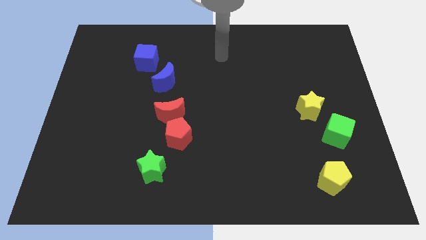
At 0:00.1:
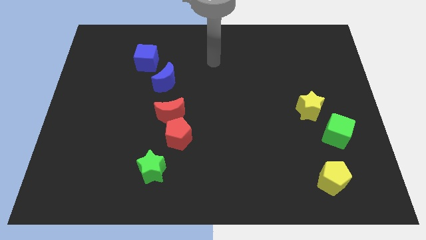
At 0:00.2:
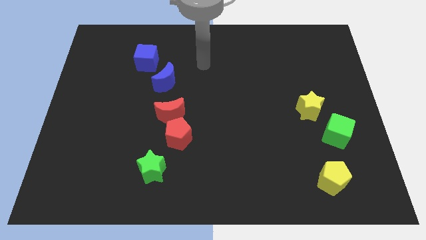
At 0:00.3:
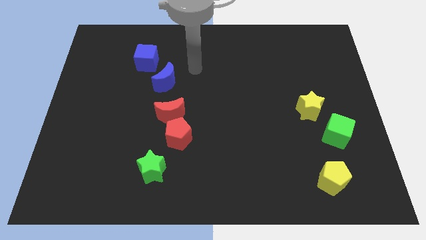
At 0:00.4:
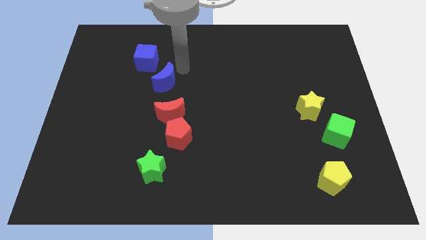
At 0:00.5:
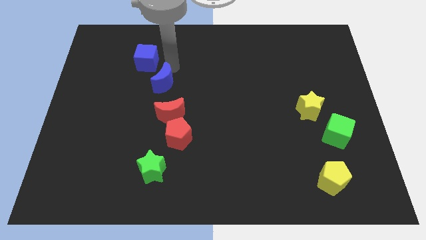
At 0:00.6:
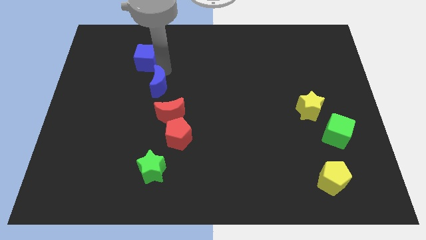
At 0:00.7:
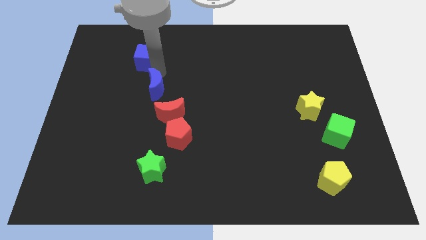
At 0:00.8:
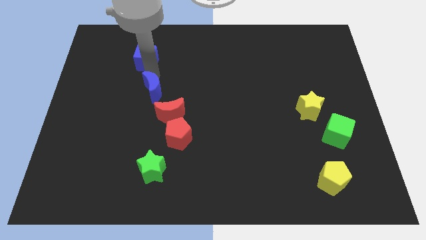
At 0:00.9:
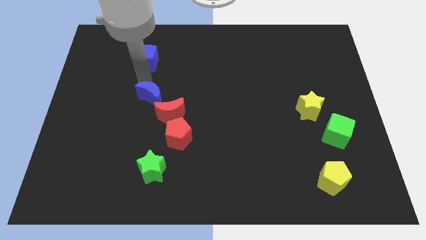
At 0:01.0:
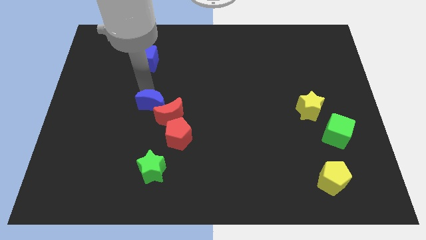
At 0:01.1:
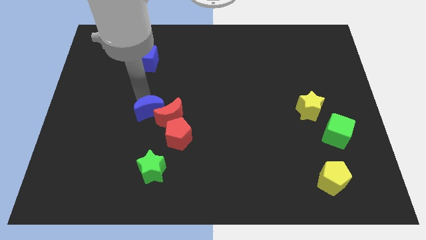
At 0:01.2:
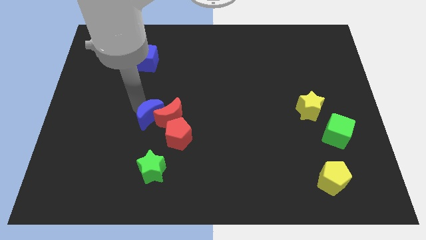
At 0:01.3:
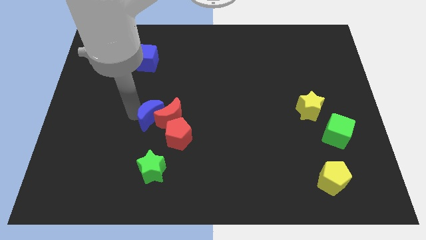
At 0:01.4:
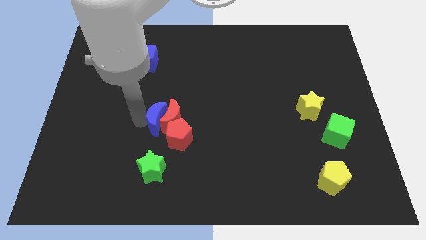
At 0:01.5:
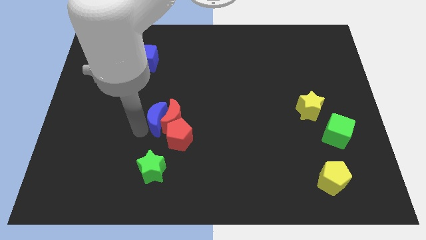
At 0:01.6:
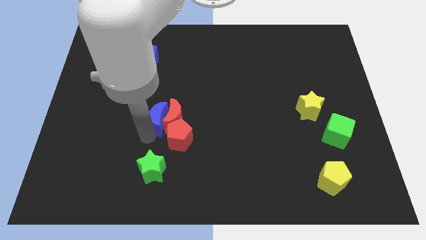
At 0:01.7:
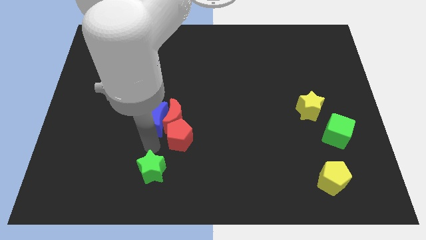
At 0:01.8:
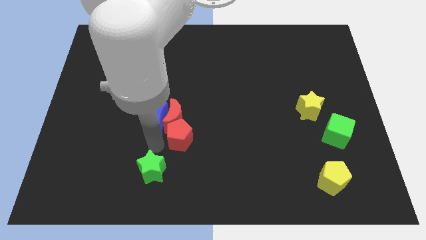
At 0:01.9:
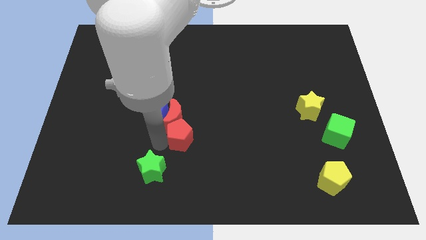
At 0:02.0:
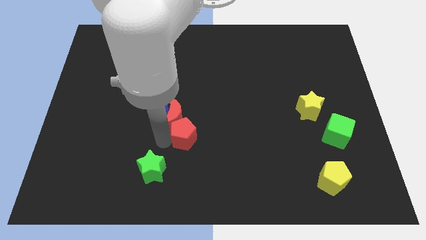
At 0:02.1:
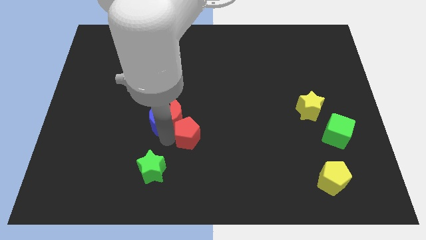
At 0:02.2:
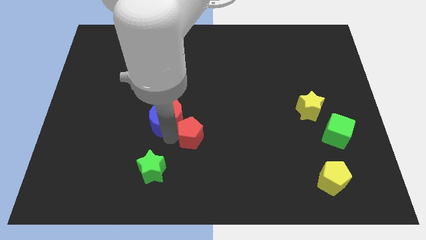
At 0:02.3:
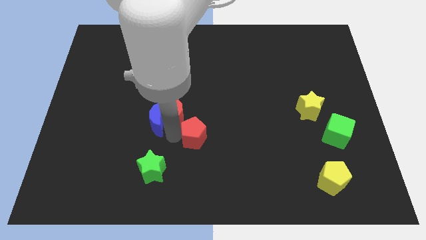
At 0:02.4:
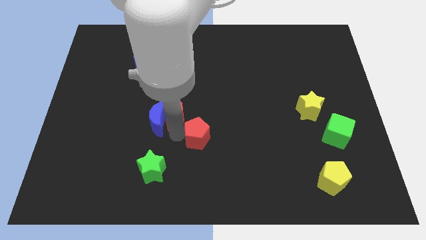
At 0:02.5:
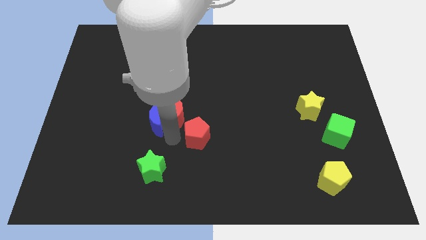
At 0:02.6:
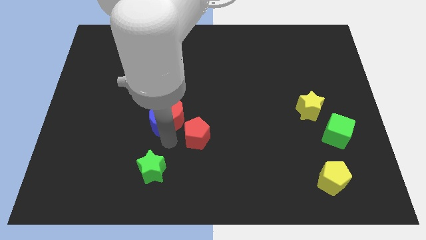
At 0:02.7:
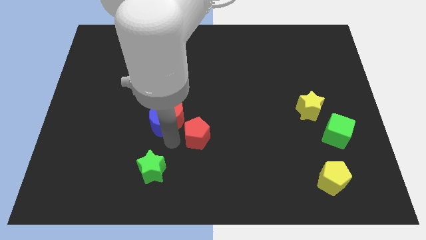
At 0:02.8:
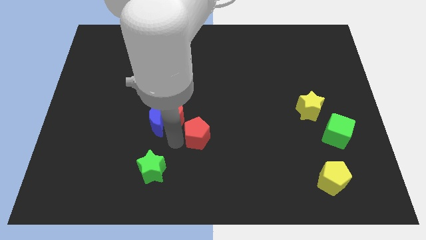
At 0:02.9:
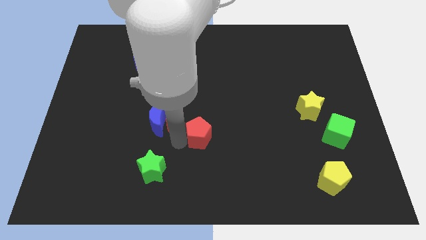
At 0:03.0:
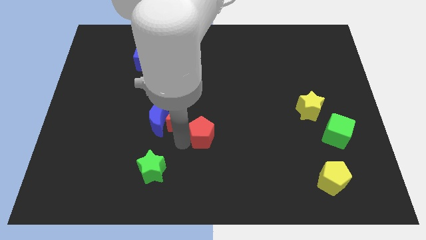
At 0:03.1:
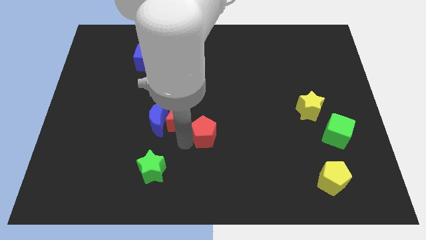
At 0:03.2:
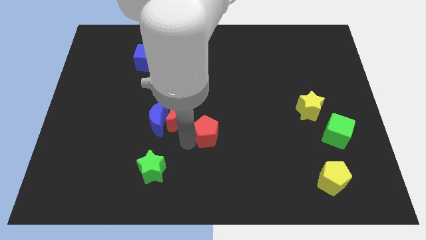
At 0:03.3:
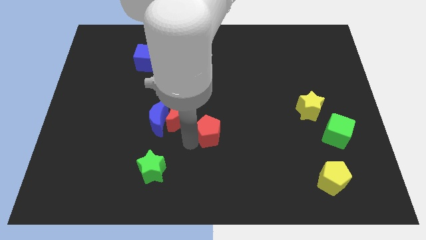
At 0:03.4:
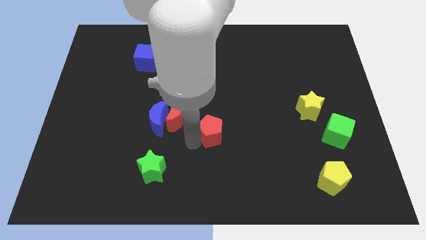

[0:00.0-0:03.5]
pull the red pentagon apart from the red moon and green star

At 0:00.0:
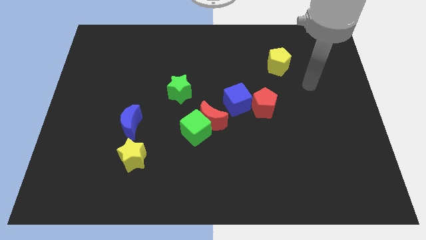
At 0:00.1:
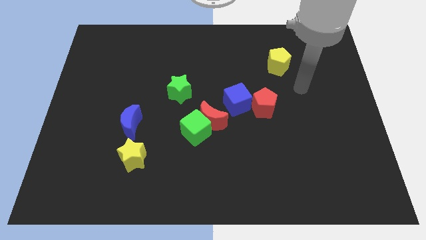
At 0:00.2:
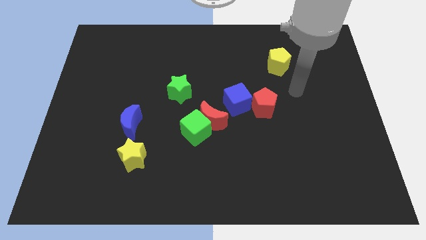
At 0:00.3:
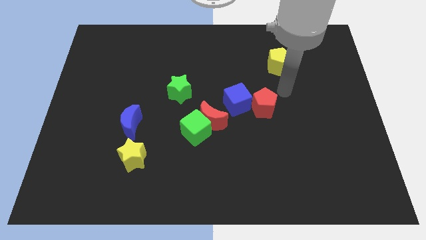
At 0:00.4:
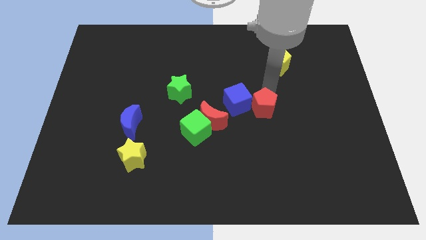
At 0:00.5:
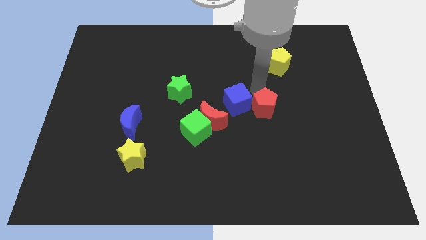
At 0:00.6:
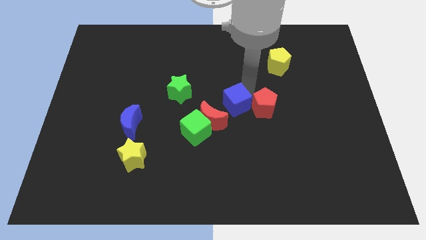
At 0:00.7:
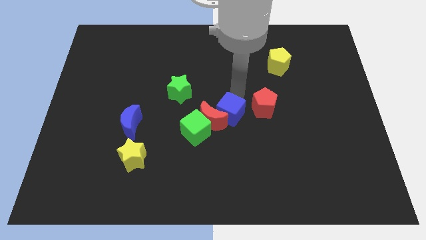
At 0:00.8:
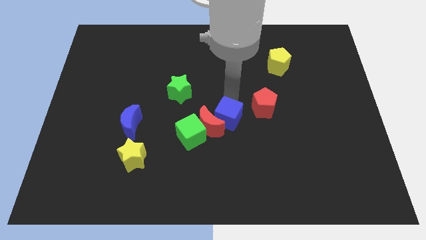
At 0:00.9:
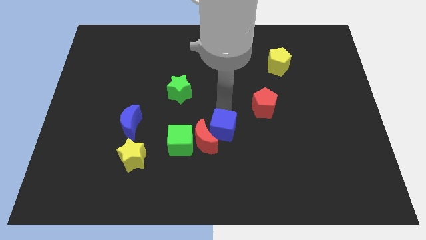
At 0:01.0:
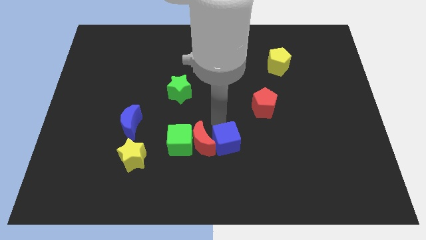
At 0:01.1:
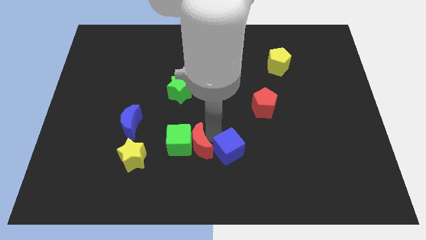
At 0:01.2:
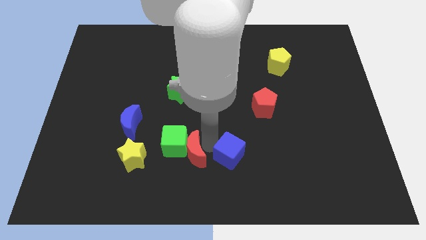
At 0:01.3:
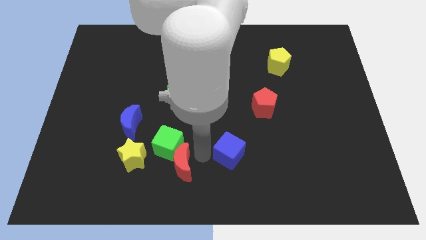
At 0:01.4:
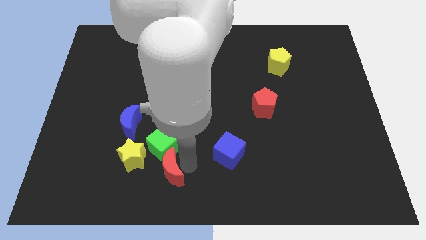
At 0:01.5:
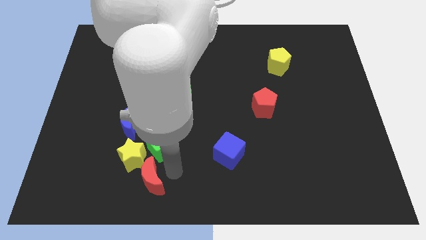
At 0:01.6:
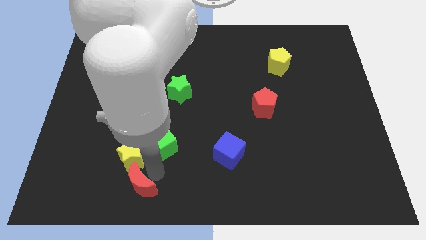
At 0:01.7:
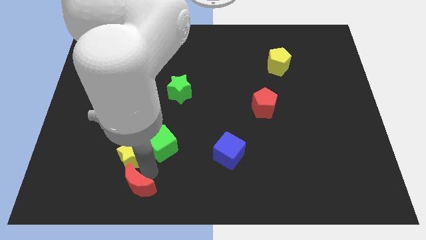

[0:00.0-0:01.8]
move the green cube away from the red moon

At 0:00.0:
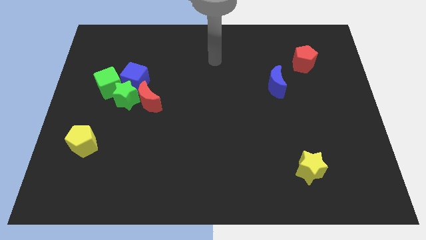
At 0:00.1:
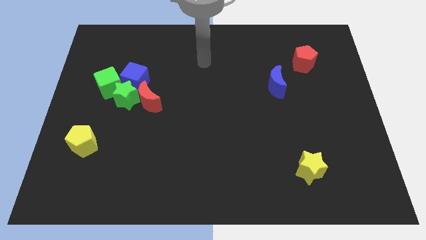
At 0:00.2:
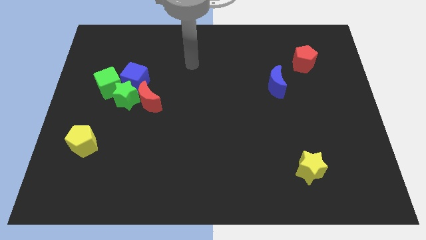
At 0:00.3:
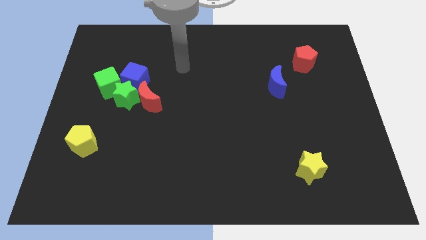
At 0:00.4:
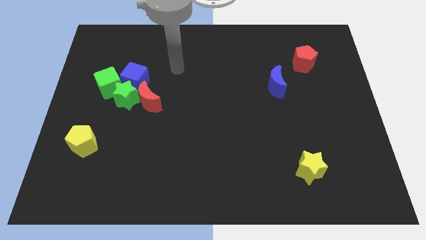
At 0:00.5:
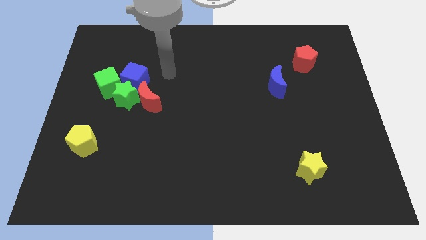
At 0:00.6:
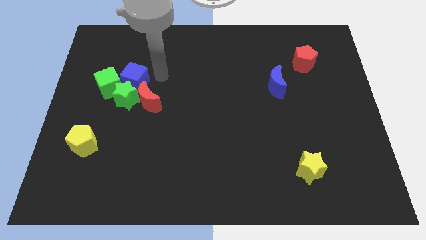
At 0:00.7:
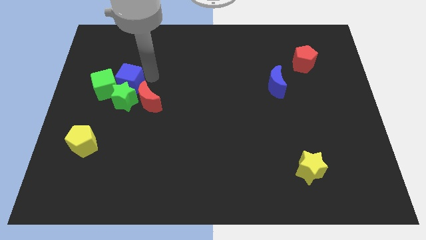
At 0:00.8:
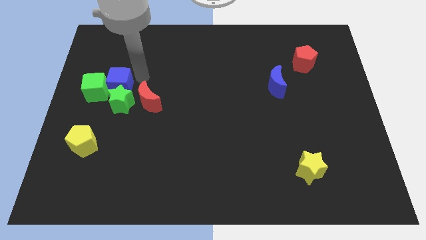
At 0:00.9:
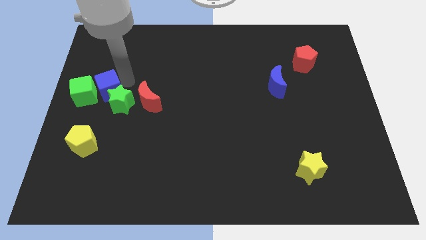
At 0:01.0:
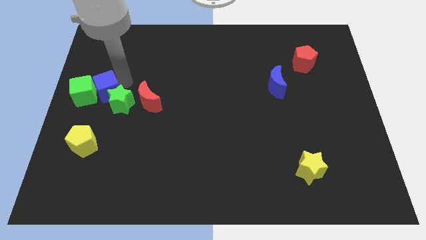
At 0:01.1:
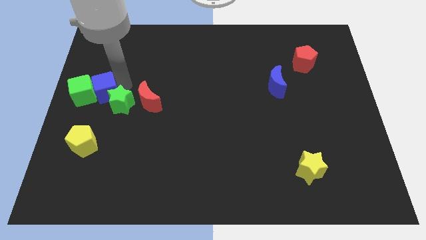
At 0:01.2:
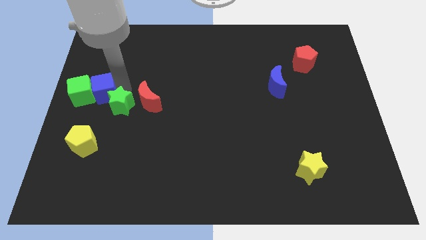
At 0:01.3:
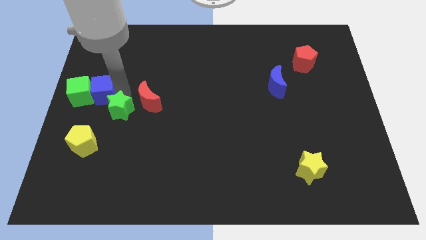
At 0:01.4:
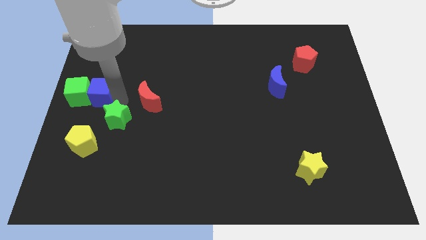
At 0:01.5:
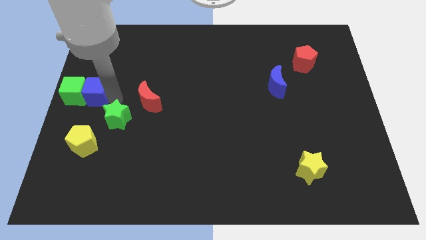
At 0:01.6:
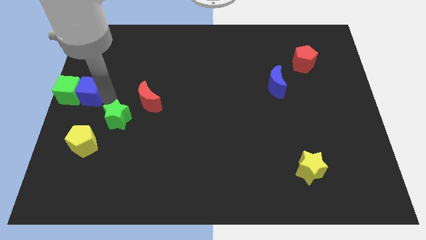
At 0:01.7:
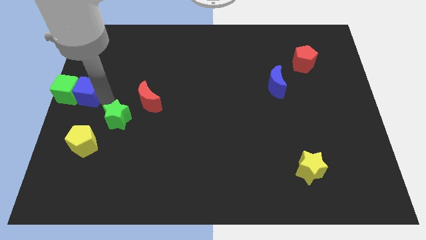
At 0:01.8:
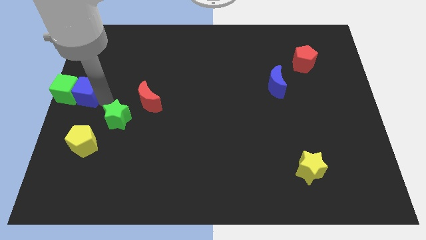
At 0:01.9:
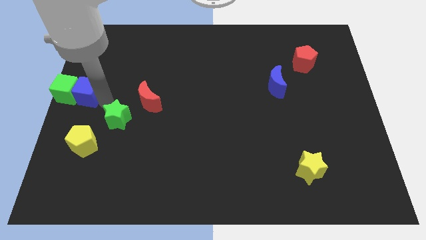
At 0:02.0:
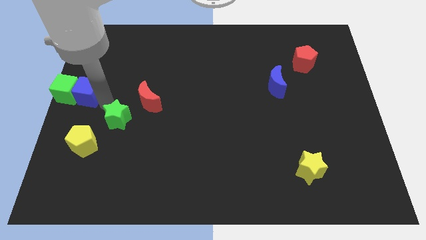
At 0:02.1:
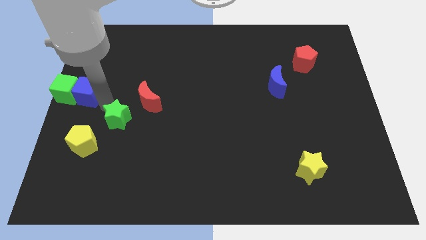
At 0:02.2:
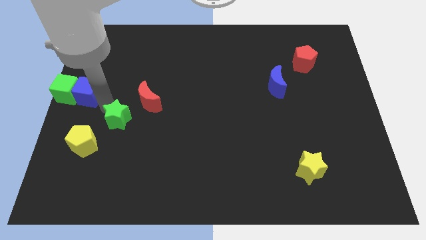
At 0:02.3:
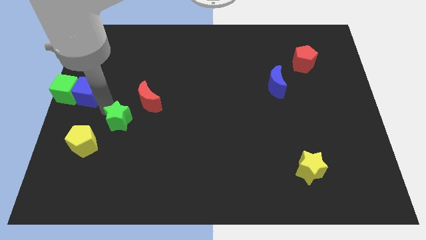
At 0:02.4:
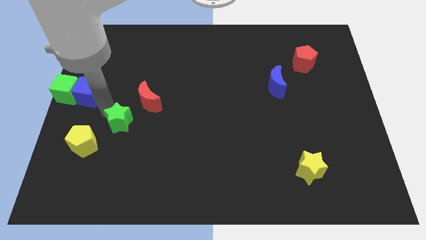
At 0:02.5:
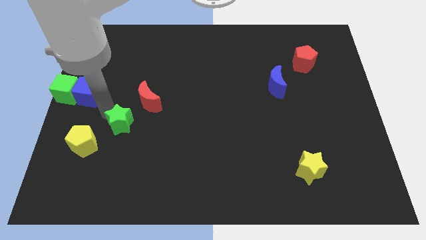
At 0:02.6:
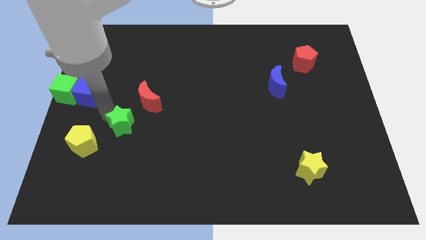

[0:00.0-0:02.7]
move the green star away from the group of blocks

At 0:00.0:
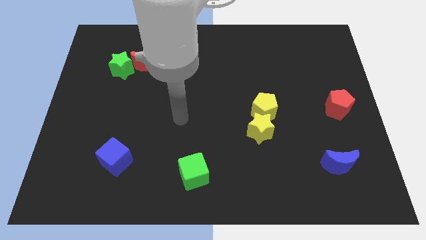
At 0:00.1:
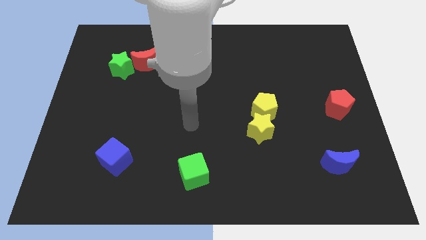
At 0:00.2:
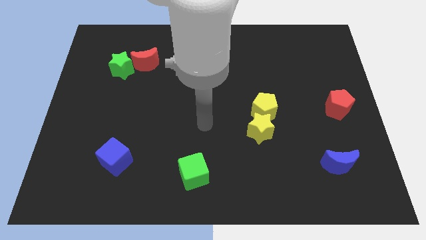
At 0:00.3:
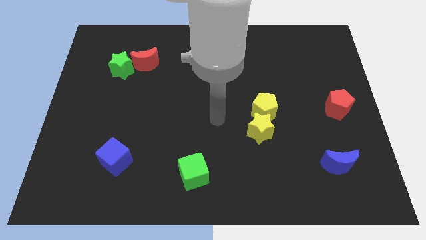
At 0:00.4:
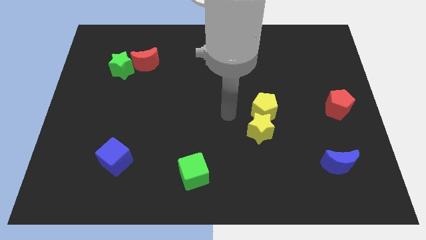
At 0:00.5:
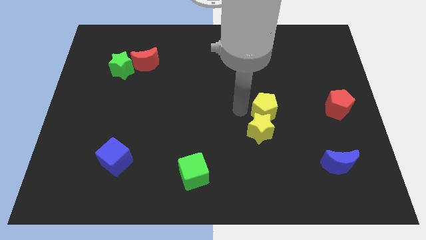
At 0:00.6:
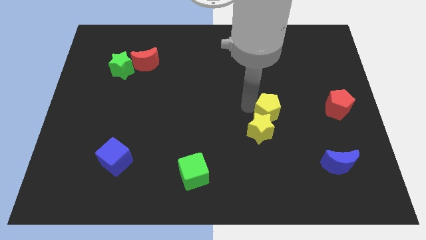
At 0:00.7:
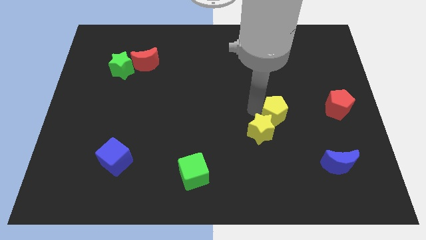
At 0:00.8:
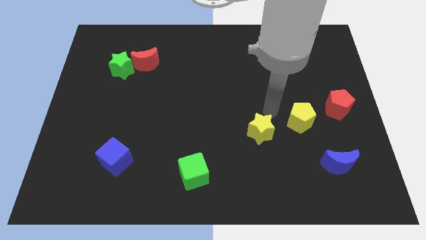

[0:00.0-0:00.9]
move the yellow star away from the yellow pentagon

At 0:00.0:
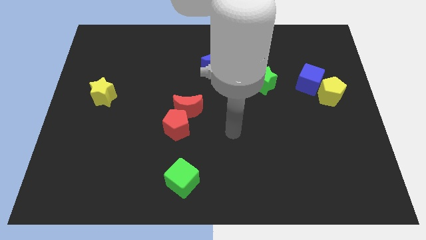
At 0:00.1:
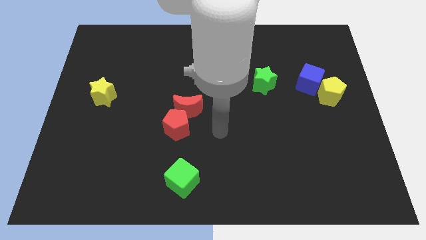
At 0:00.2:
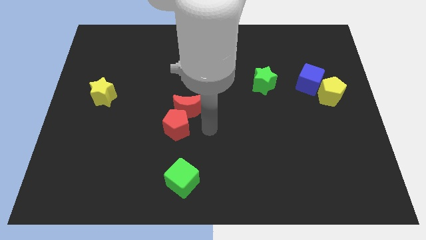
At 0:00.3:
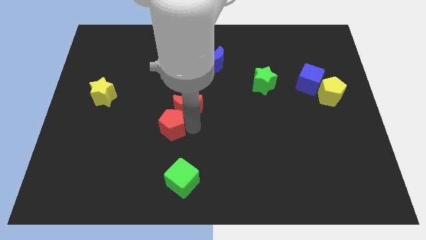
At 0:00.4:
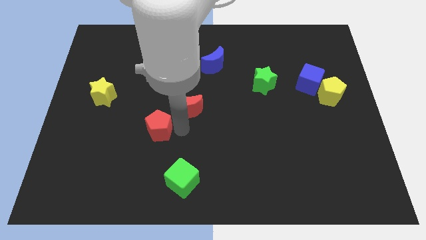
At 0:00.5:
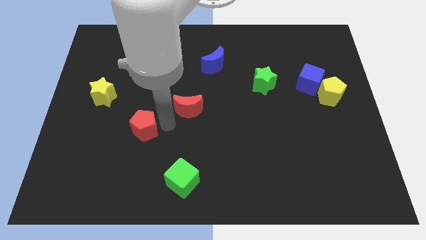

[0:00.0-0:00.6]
move the red moon away from the red pentagon
